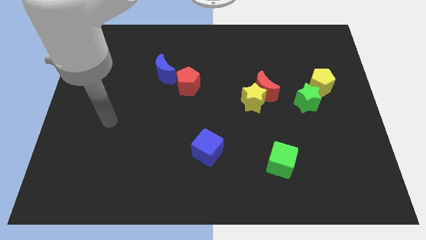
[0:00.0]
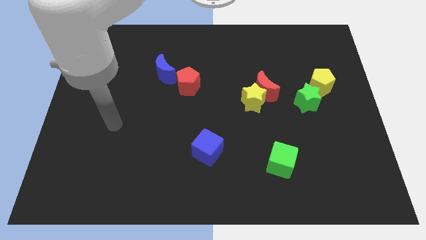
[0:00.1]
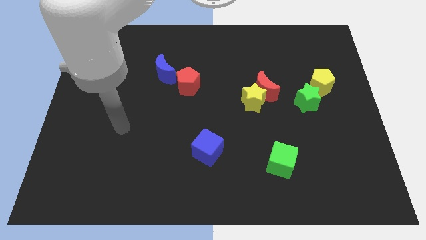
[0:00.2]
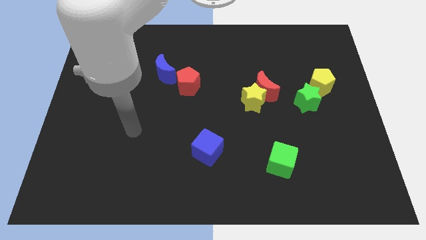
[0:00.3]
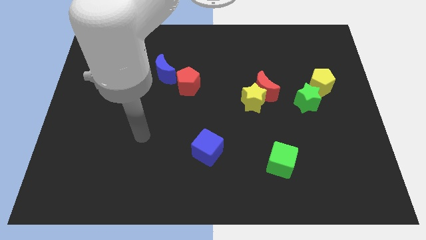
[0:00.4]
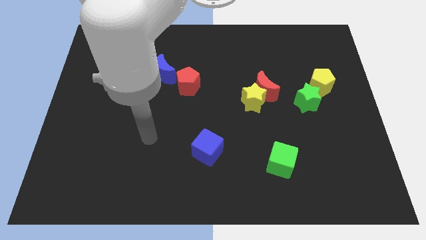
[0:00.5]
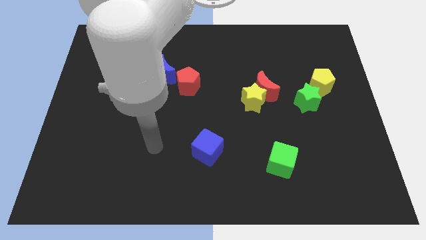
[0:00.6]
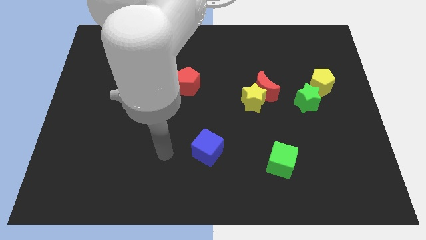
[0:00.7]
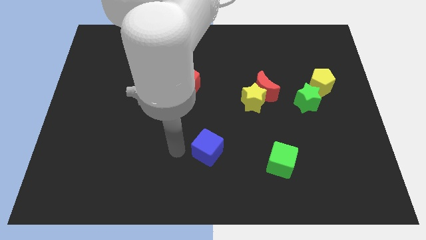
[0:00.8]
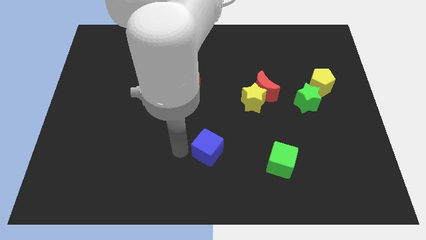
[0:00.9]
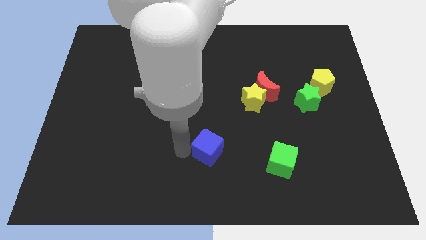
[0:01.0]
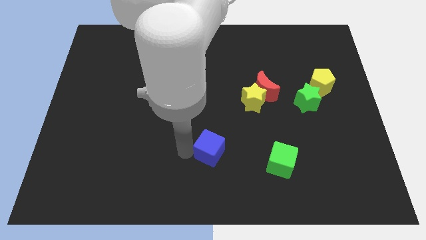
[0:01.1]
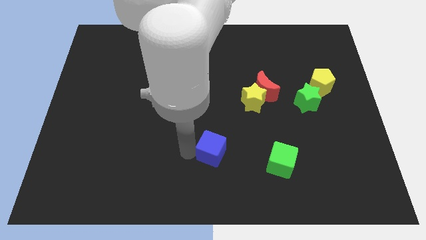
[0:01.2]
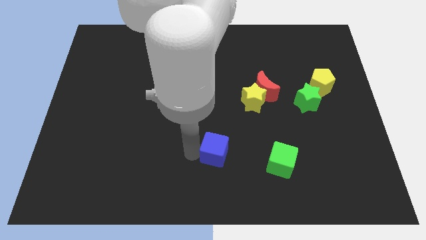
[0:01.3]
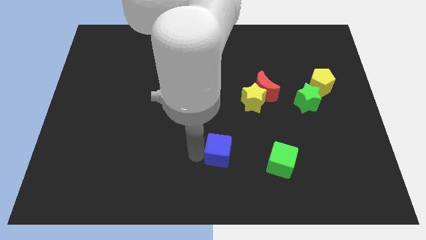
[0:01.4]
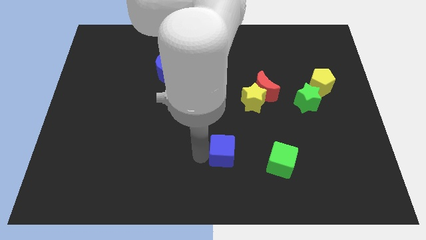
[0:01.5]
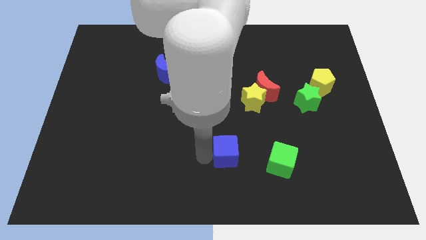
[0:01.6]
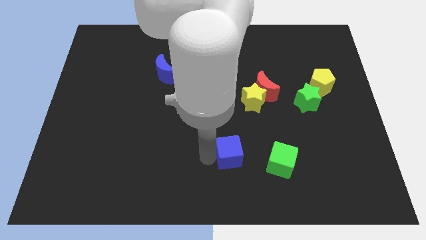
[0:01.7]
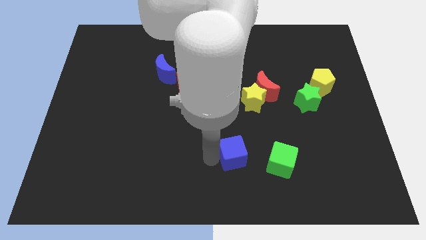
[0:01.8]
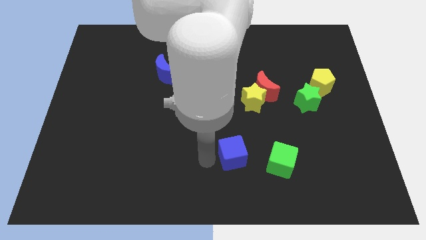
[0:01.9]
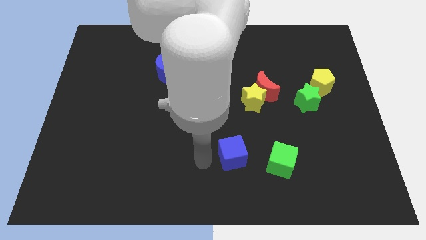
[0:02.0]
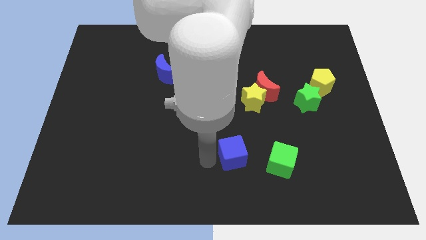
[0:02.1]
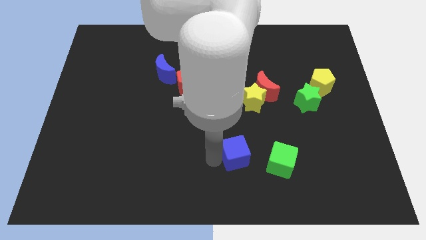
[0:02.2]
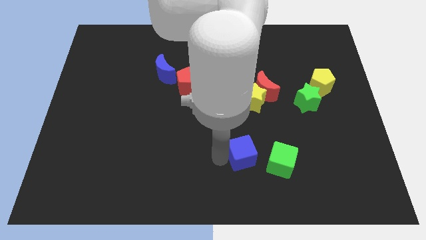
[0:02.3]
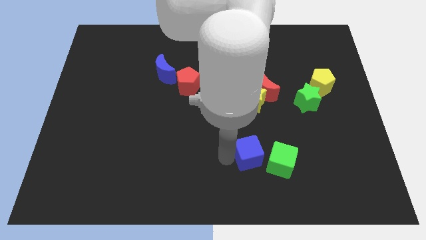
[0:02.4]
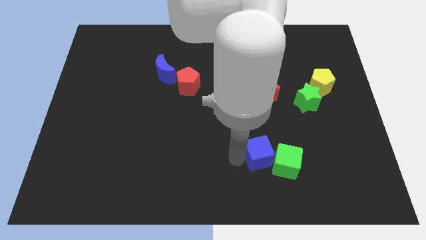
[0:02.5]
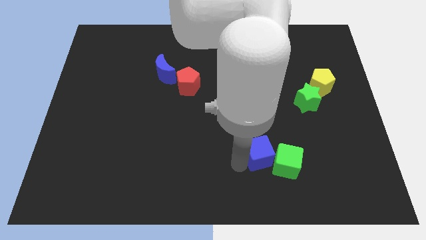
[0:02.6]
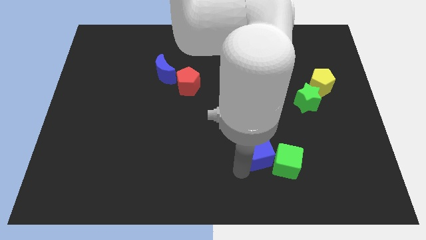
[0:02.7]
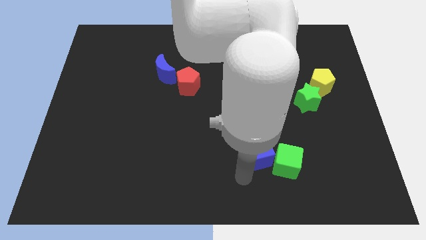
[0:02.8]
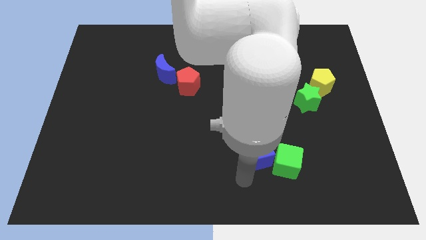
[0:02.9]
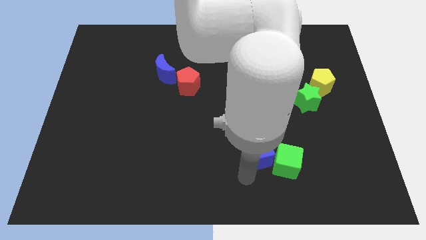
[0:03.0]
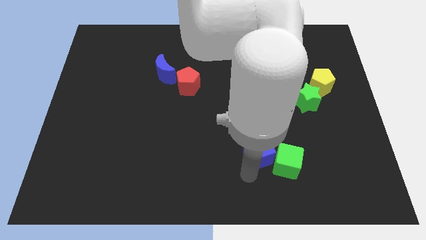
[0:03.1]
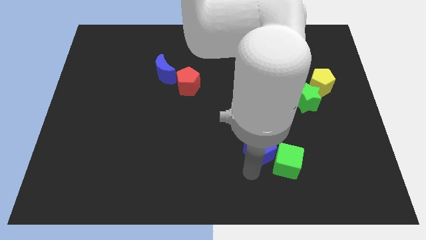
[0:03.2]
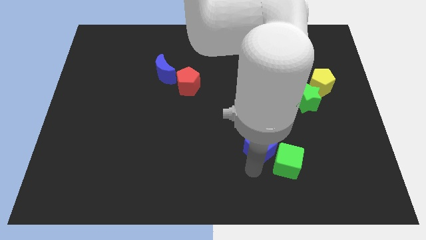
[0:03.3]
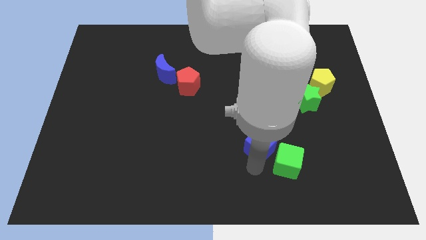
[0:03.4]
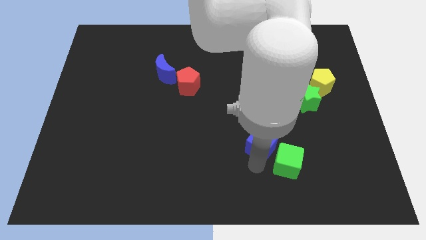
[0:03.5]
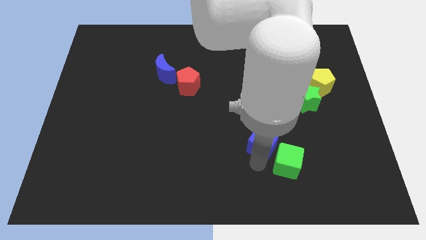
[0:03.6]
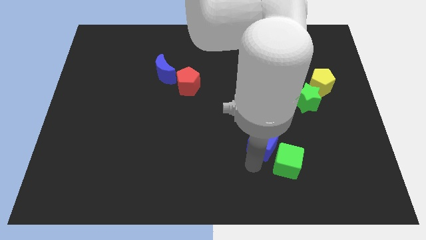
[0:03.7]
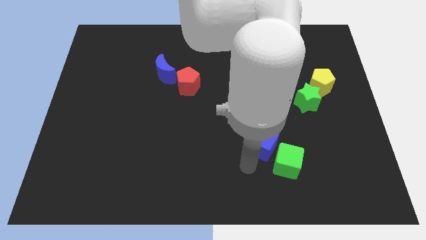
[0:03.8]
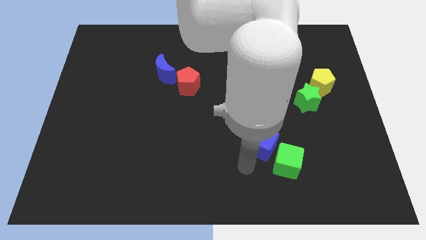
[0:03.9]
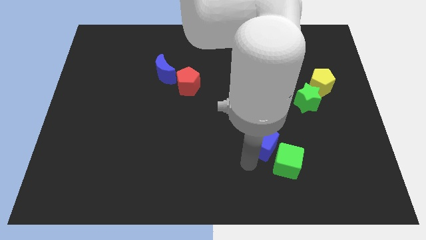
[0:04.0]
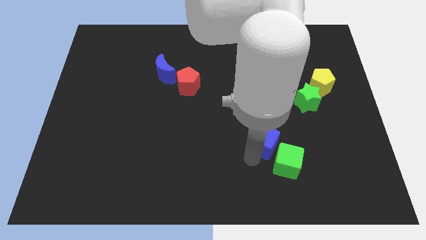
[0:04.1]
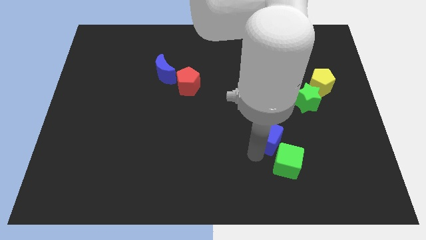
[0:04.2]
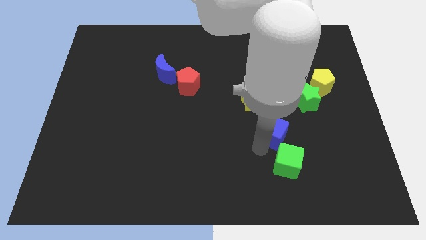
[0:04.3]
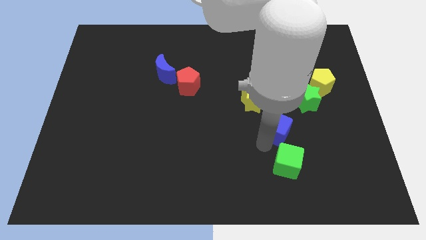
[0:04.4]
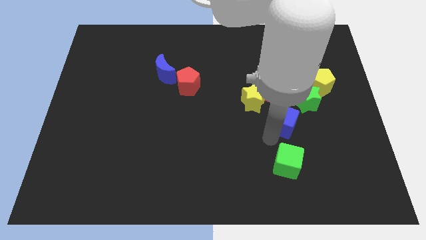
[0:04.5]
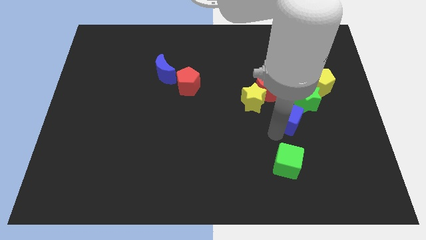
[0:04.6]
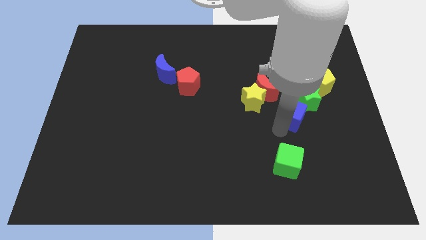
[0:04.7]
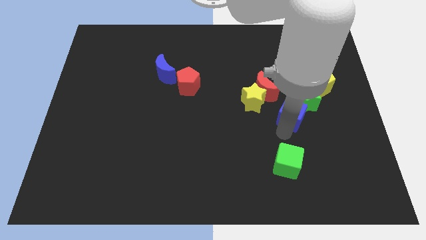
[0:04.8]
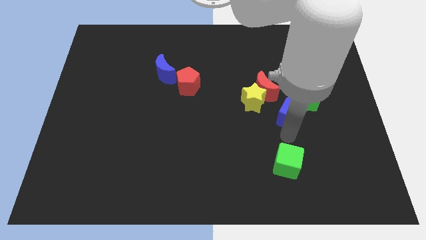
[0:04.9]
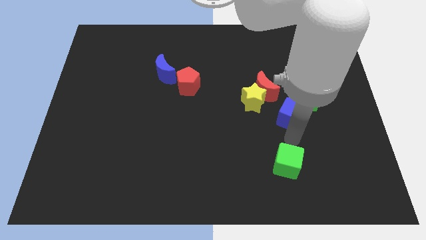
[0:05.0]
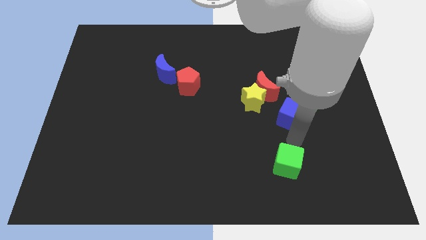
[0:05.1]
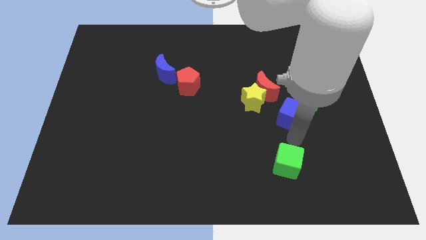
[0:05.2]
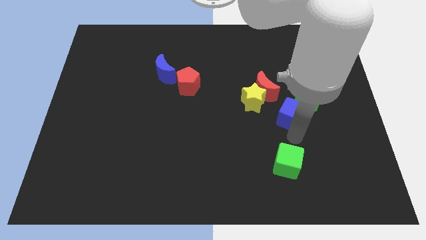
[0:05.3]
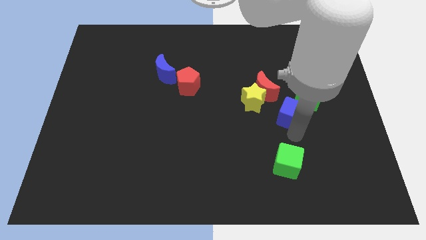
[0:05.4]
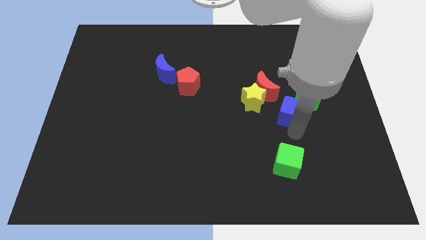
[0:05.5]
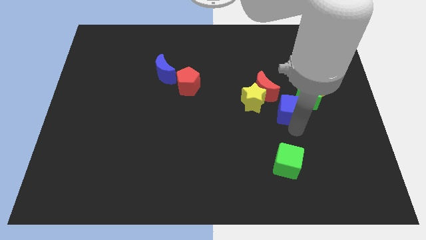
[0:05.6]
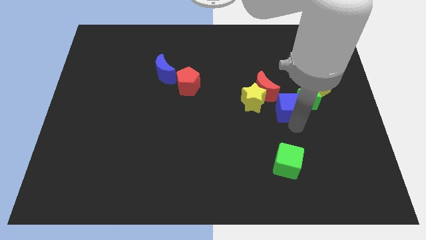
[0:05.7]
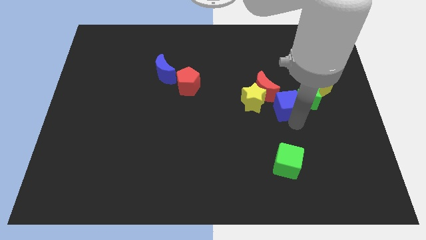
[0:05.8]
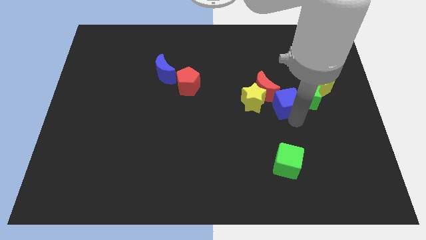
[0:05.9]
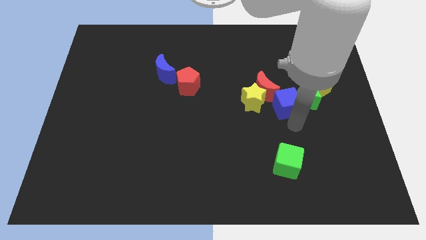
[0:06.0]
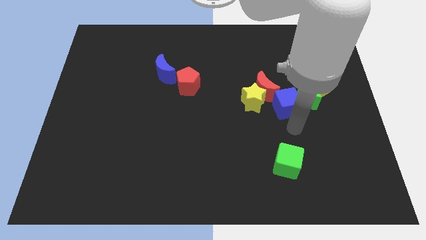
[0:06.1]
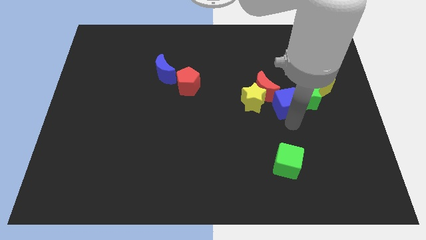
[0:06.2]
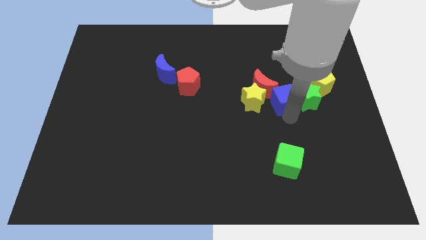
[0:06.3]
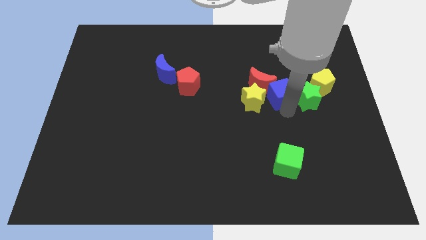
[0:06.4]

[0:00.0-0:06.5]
slide the blue cube to the left side of the yellow pentagon
